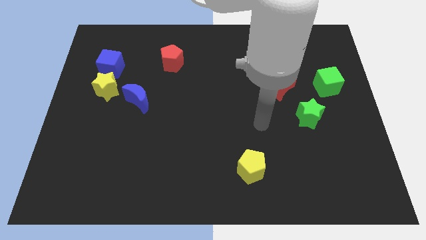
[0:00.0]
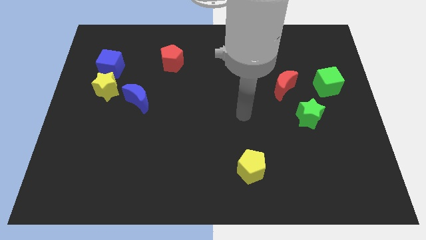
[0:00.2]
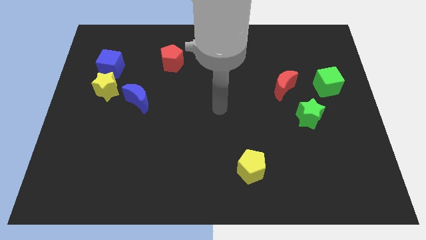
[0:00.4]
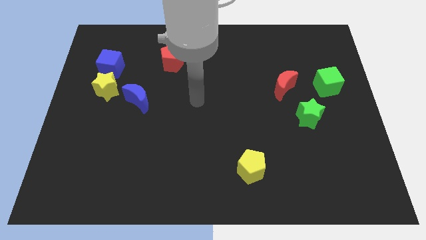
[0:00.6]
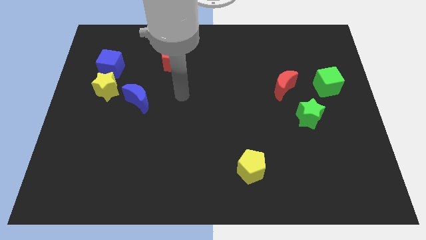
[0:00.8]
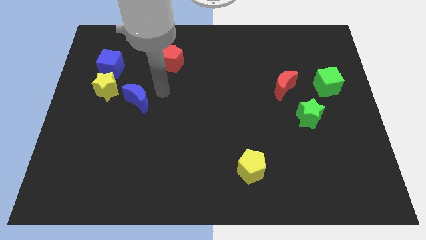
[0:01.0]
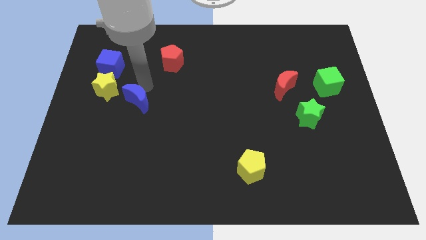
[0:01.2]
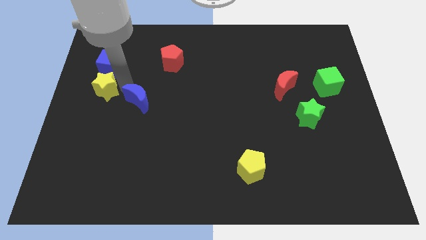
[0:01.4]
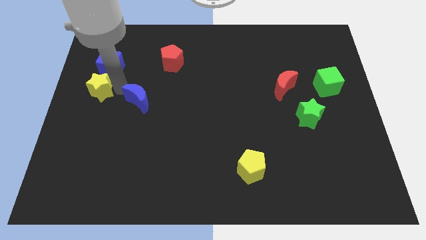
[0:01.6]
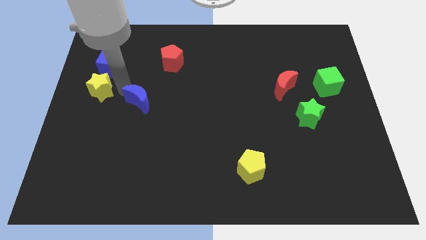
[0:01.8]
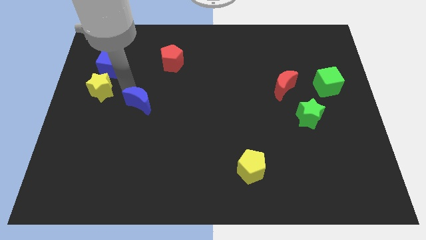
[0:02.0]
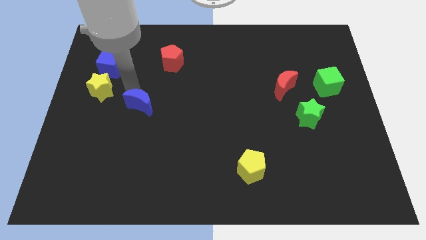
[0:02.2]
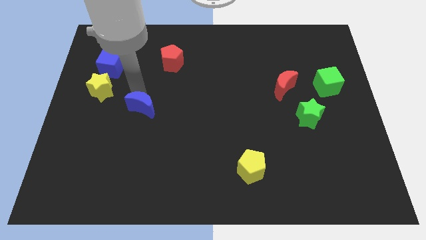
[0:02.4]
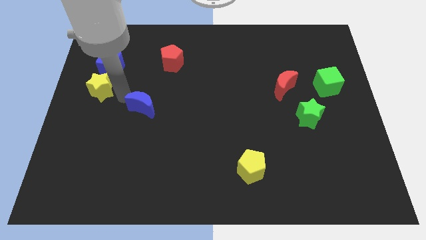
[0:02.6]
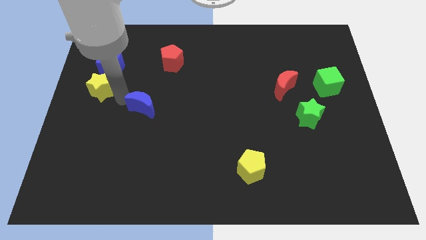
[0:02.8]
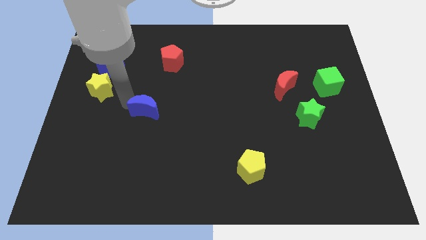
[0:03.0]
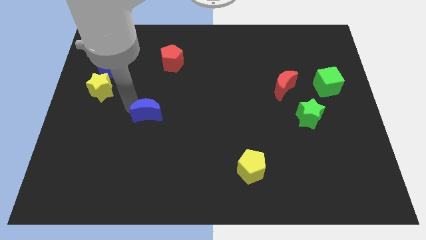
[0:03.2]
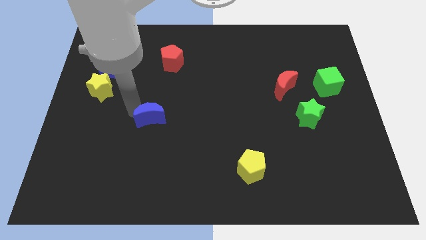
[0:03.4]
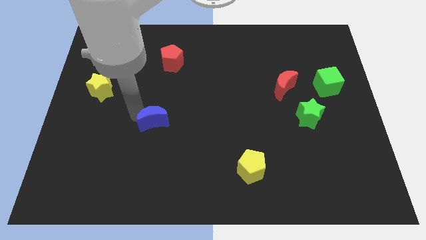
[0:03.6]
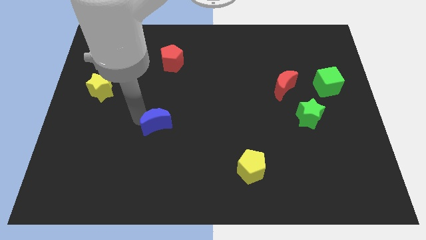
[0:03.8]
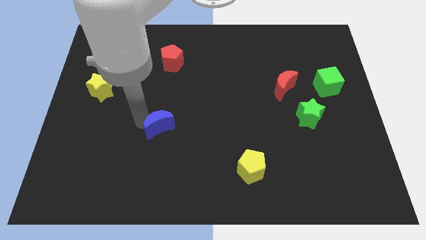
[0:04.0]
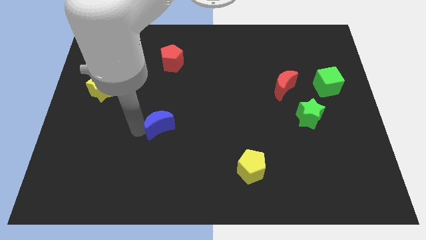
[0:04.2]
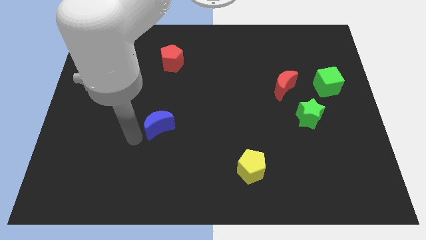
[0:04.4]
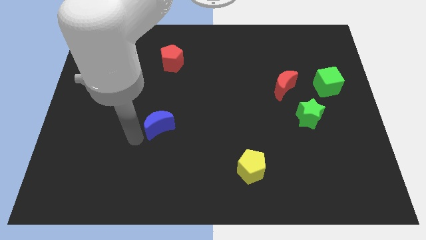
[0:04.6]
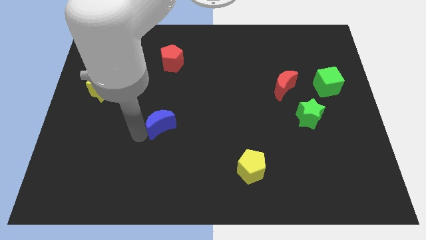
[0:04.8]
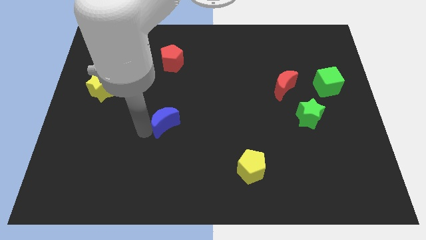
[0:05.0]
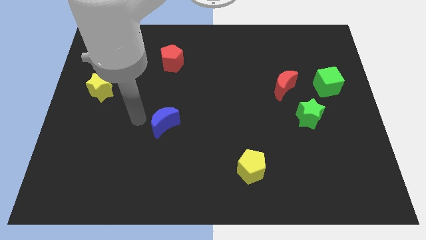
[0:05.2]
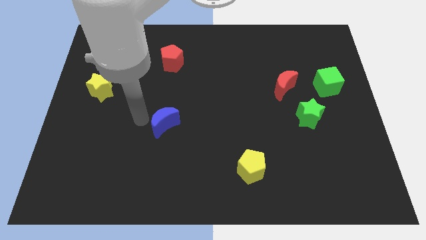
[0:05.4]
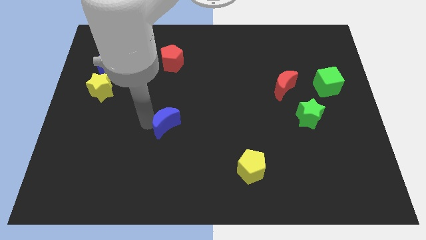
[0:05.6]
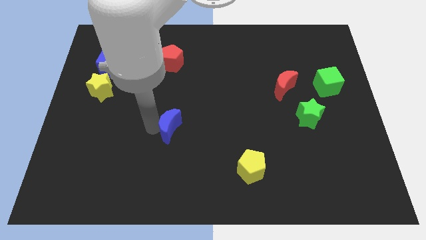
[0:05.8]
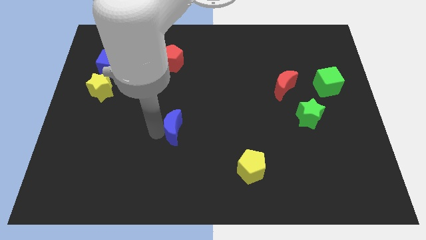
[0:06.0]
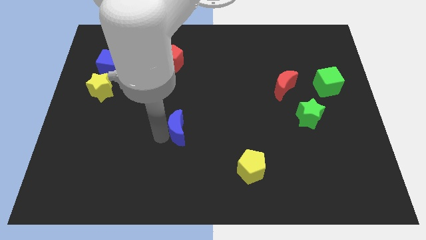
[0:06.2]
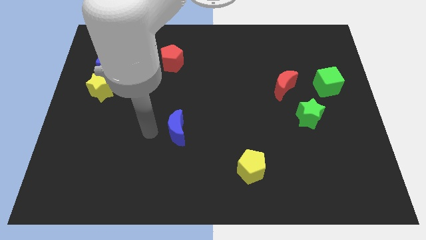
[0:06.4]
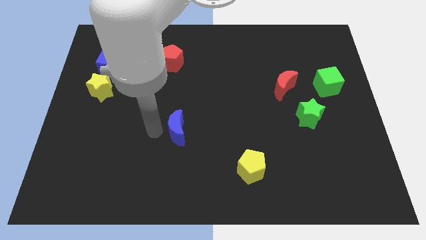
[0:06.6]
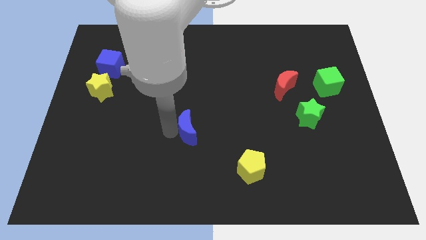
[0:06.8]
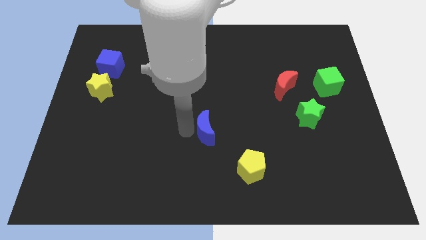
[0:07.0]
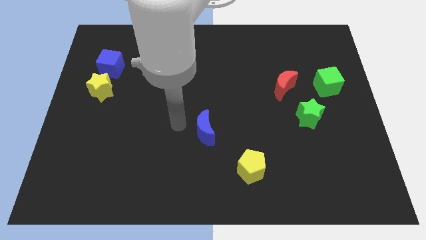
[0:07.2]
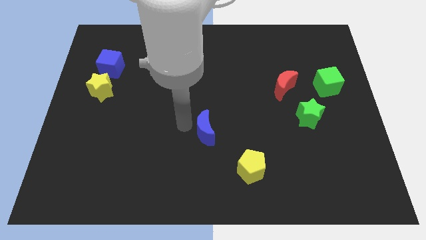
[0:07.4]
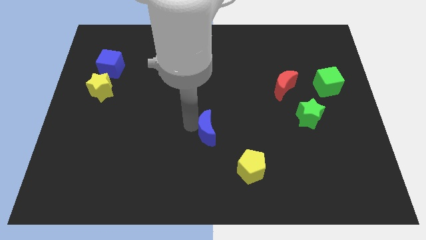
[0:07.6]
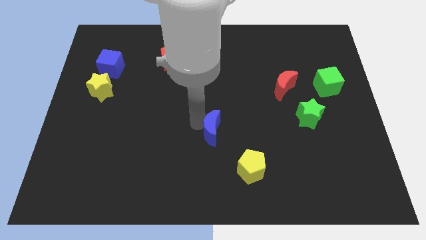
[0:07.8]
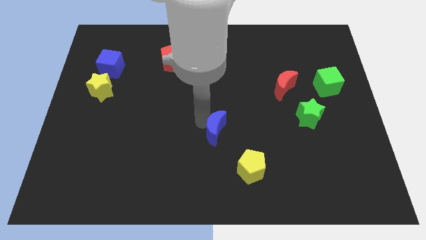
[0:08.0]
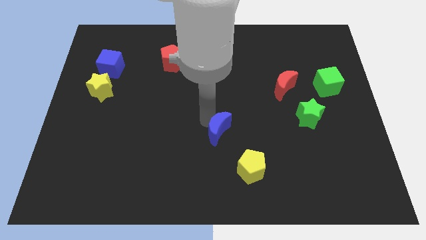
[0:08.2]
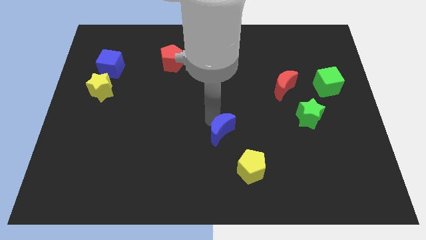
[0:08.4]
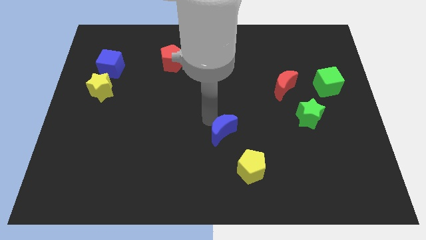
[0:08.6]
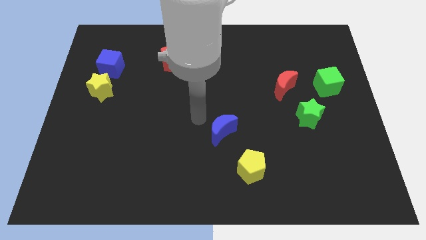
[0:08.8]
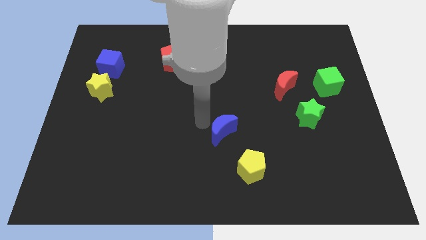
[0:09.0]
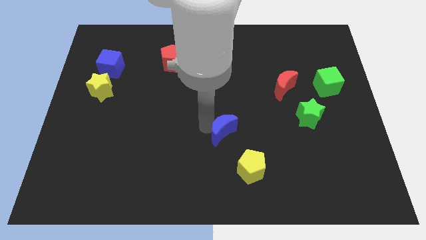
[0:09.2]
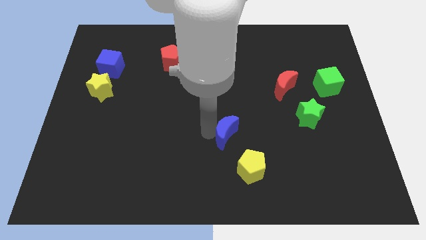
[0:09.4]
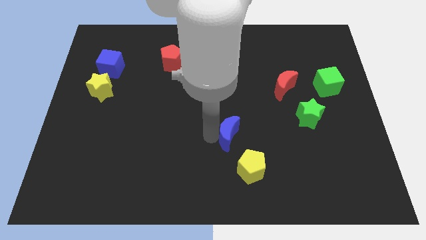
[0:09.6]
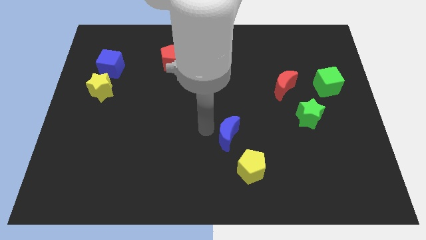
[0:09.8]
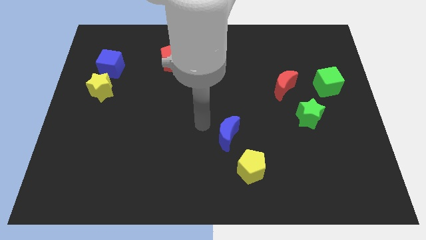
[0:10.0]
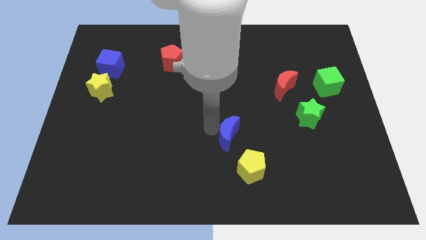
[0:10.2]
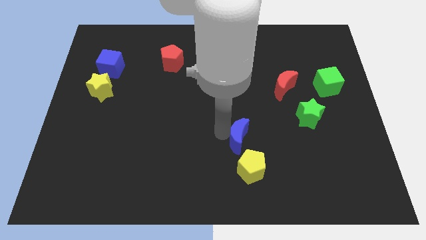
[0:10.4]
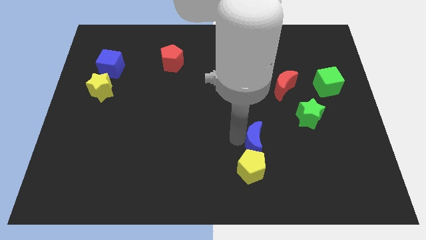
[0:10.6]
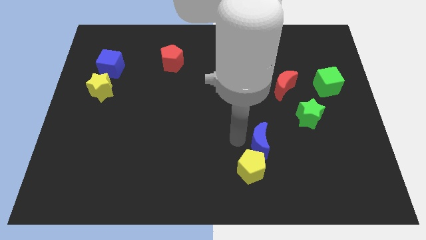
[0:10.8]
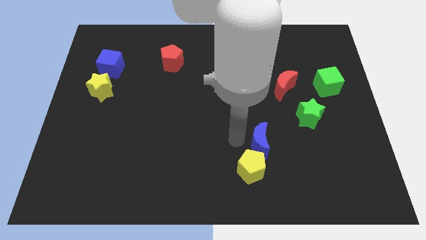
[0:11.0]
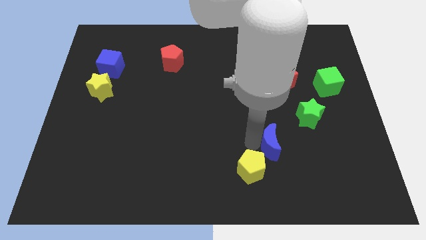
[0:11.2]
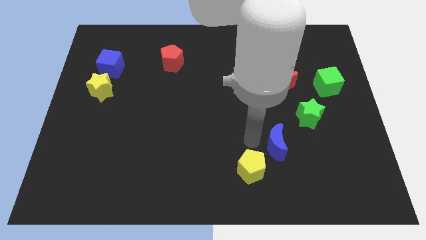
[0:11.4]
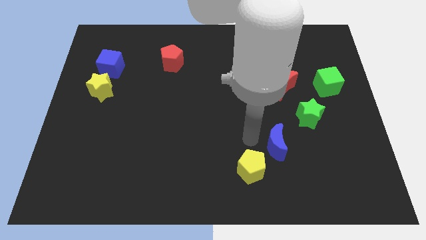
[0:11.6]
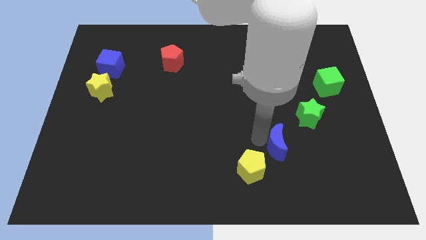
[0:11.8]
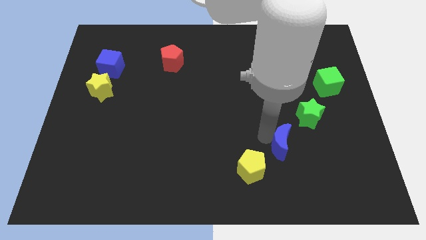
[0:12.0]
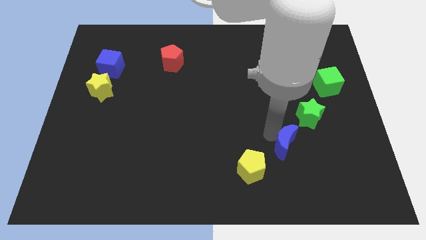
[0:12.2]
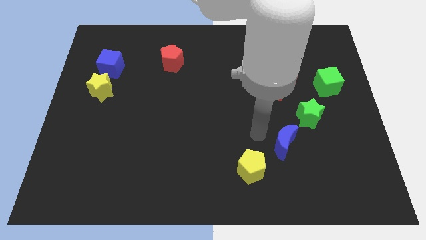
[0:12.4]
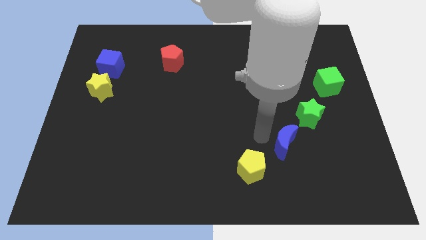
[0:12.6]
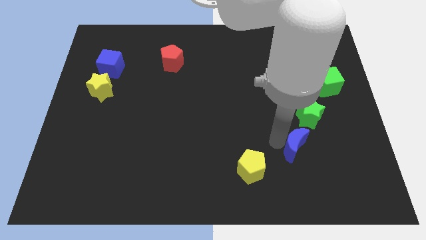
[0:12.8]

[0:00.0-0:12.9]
push the blue moon to the bottom of the green star
